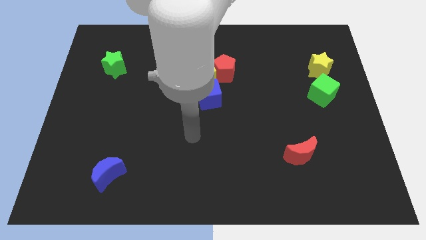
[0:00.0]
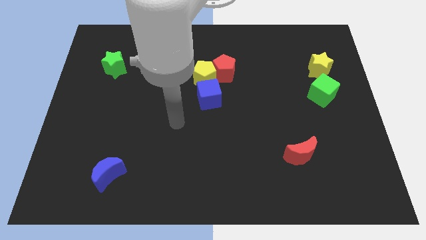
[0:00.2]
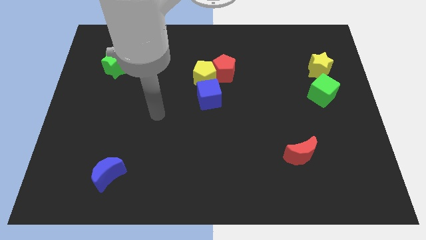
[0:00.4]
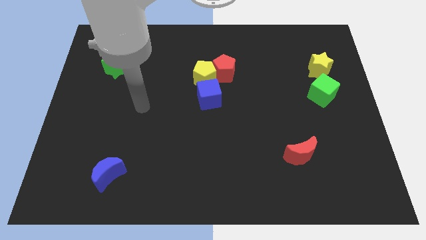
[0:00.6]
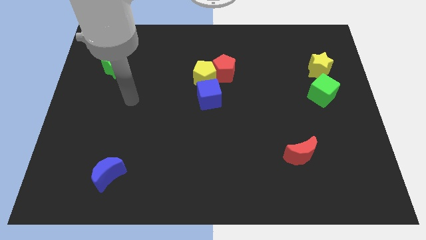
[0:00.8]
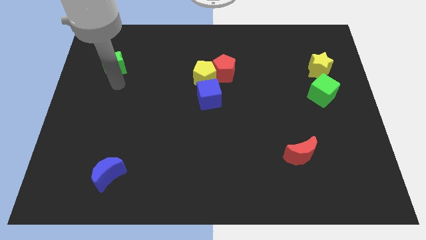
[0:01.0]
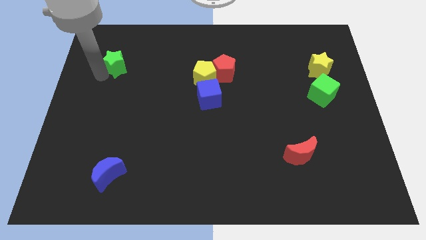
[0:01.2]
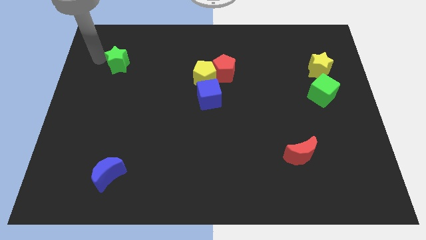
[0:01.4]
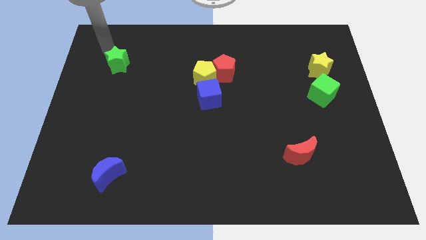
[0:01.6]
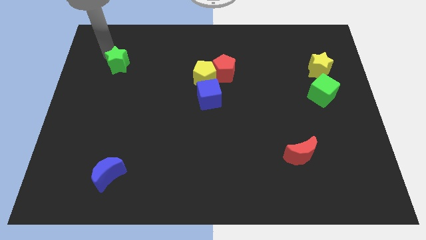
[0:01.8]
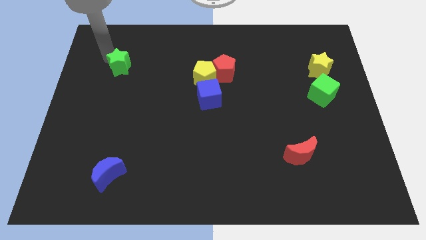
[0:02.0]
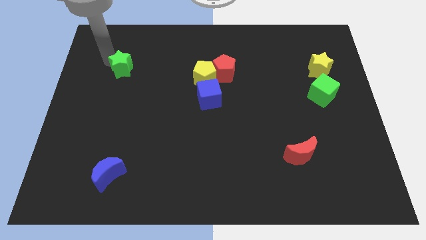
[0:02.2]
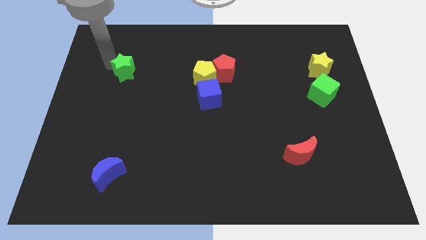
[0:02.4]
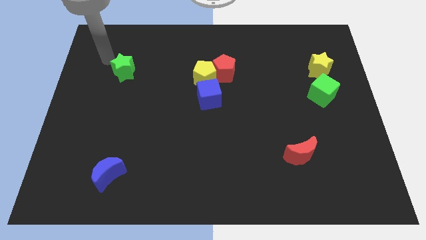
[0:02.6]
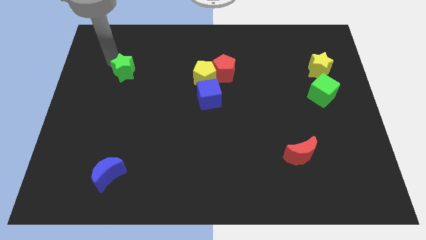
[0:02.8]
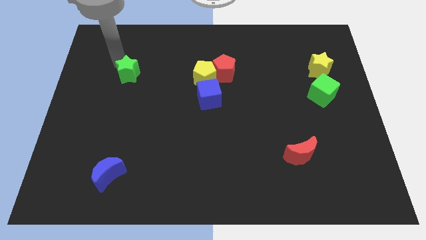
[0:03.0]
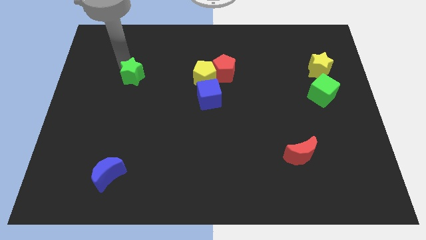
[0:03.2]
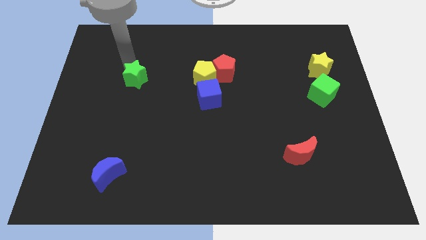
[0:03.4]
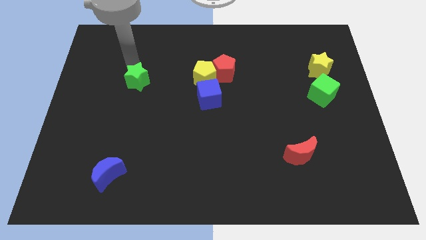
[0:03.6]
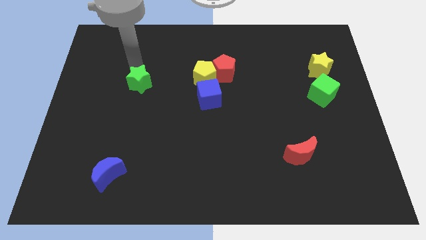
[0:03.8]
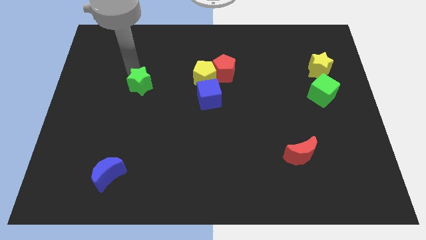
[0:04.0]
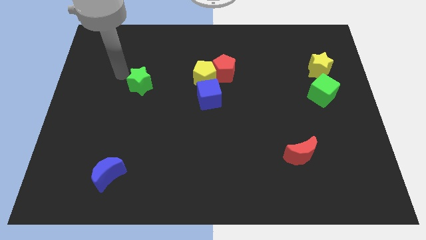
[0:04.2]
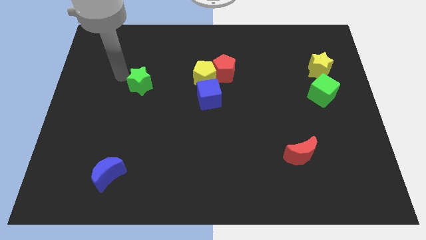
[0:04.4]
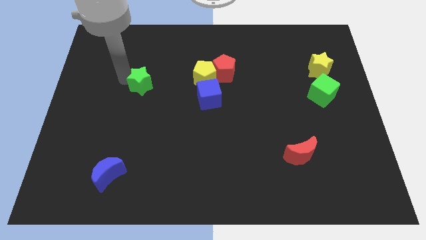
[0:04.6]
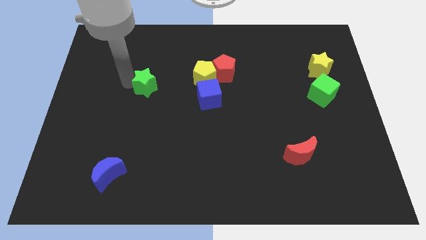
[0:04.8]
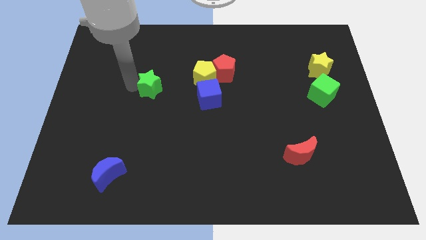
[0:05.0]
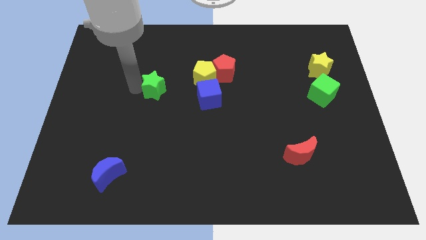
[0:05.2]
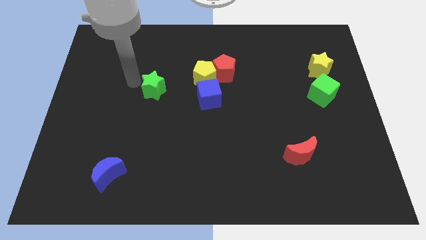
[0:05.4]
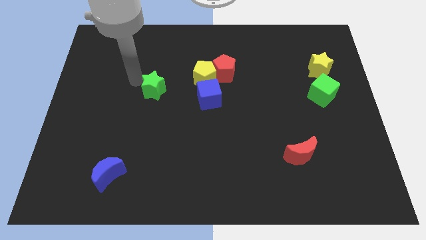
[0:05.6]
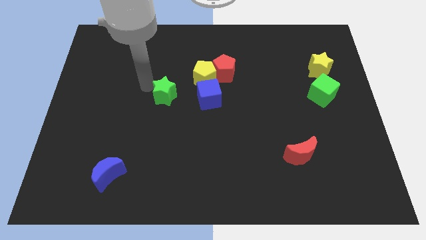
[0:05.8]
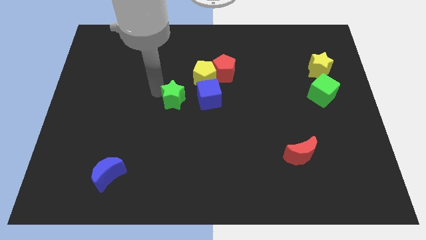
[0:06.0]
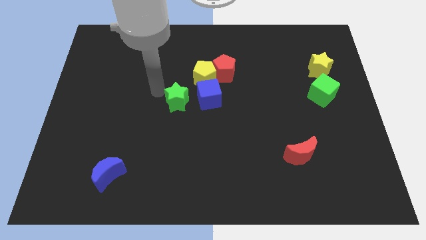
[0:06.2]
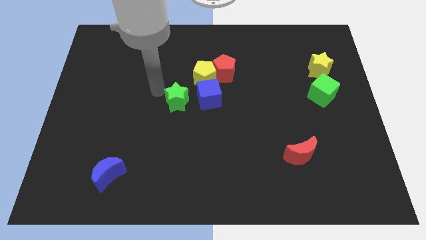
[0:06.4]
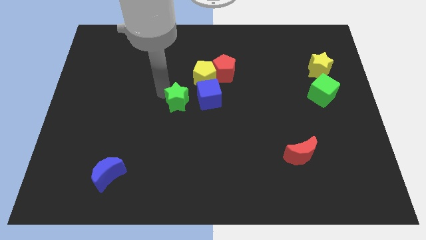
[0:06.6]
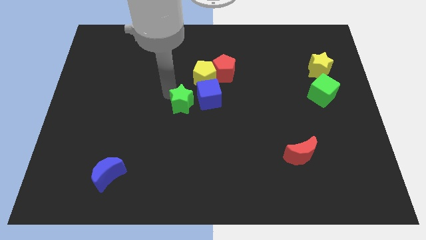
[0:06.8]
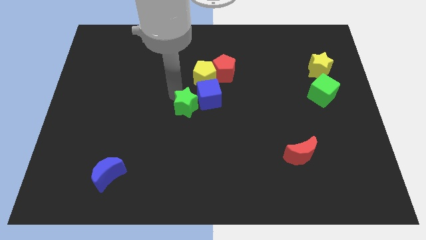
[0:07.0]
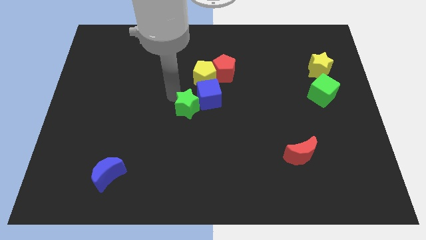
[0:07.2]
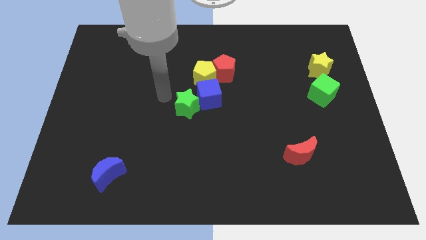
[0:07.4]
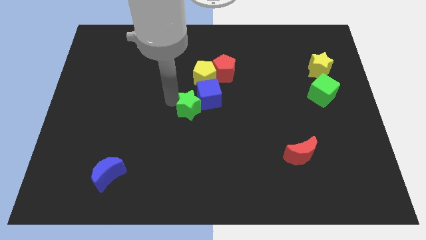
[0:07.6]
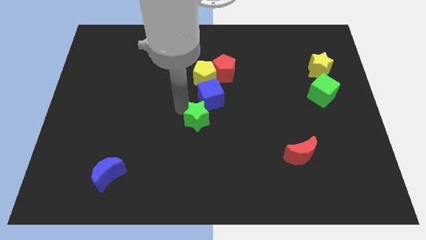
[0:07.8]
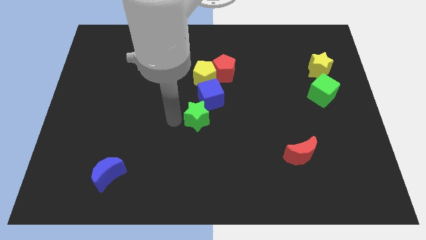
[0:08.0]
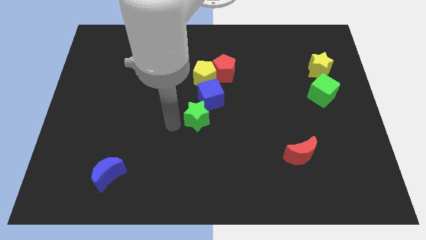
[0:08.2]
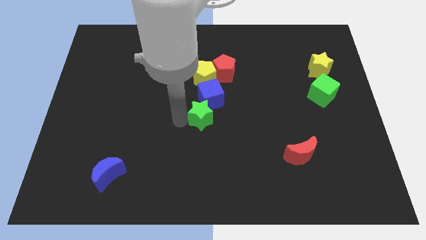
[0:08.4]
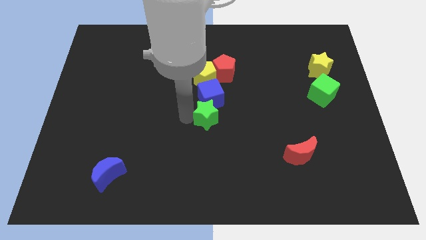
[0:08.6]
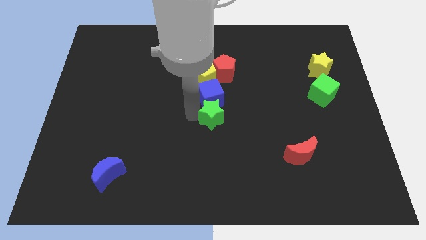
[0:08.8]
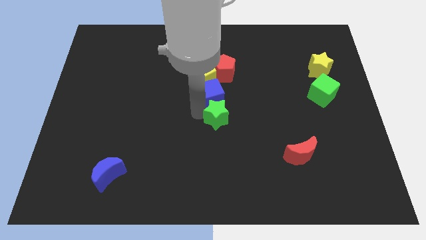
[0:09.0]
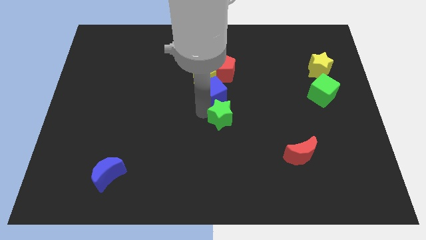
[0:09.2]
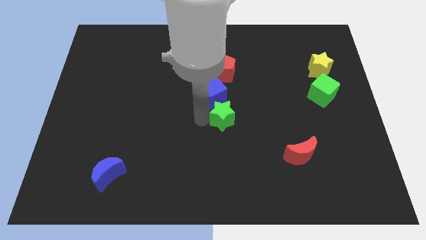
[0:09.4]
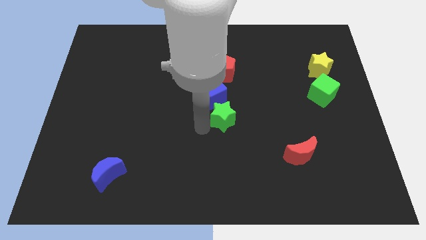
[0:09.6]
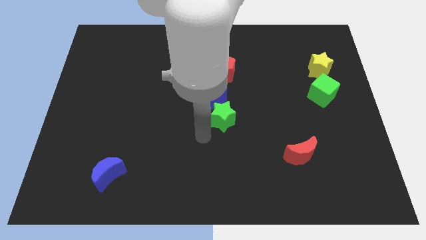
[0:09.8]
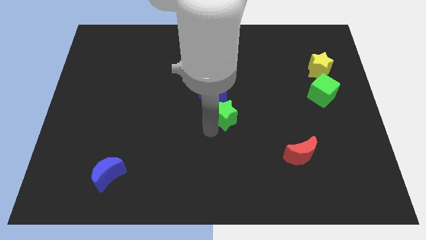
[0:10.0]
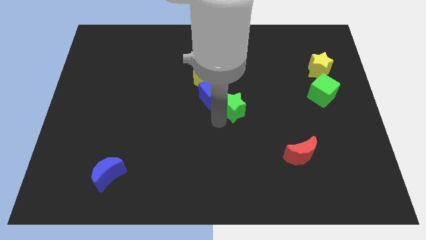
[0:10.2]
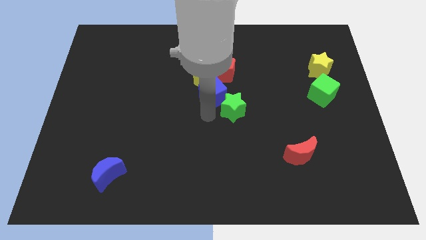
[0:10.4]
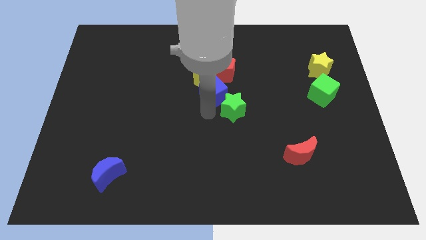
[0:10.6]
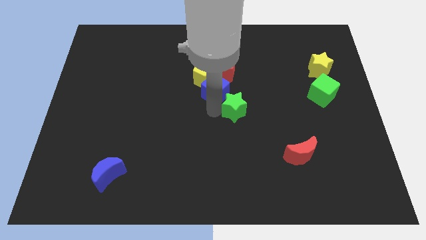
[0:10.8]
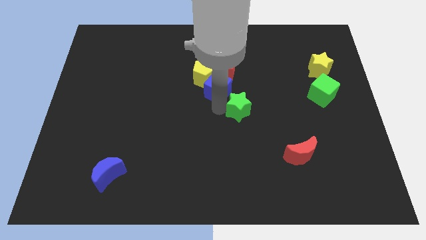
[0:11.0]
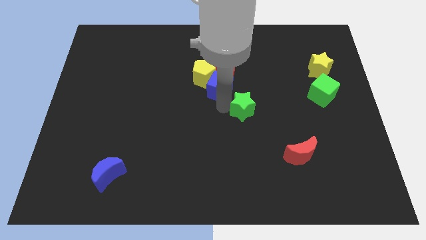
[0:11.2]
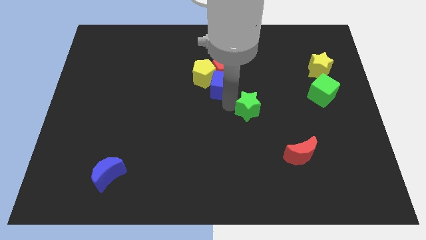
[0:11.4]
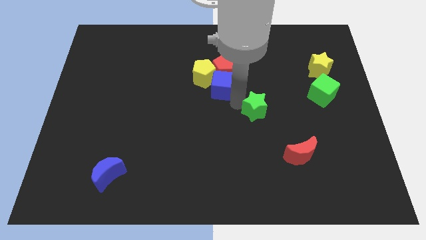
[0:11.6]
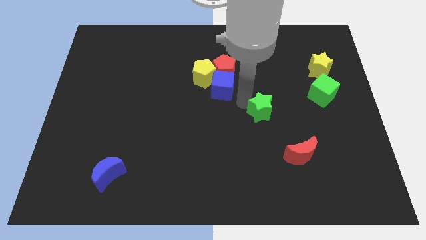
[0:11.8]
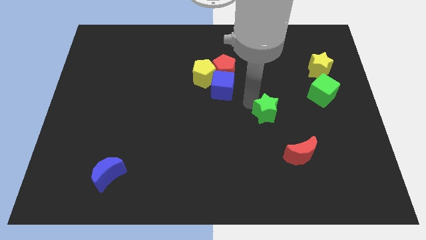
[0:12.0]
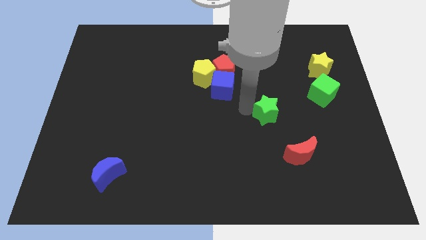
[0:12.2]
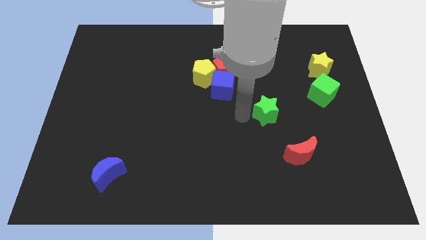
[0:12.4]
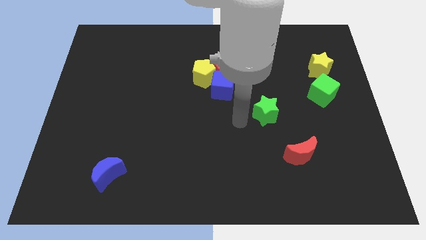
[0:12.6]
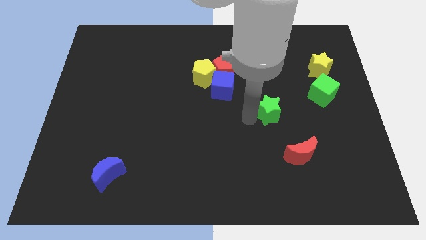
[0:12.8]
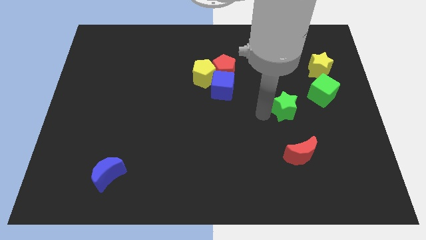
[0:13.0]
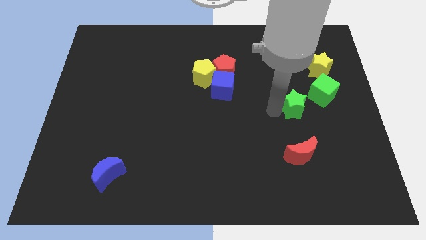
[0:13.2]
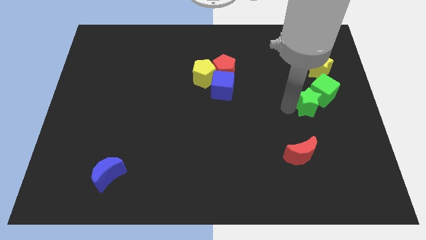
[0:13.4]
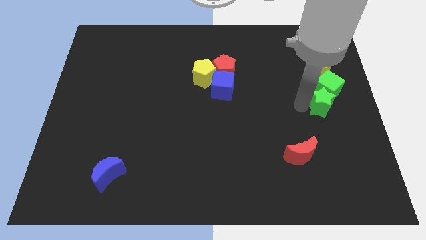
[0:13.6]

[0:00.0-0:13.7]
move the green star to the center right

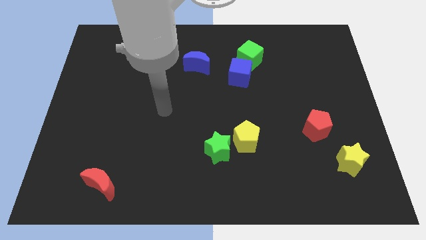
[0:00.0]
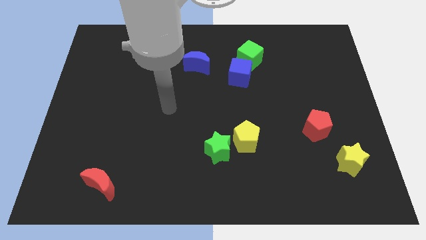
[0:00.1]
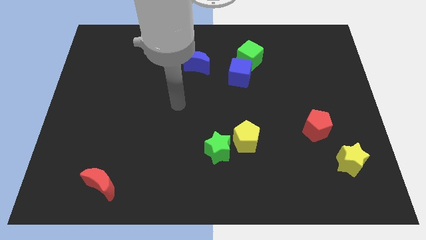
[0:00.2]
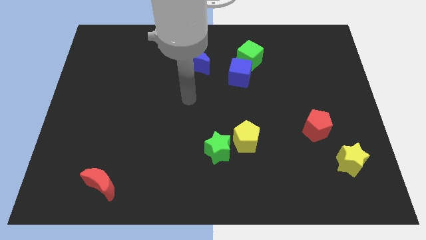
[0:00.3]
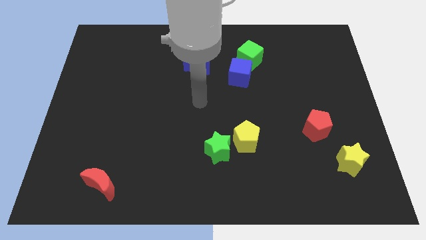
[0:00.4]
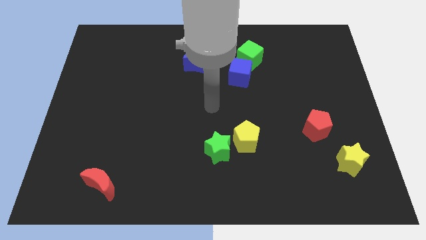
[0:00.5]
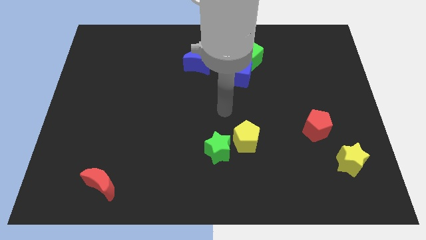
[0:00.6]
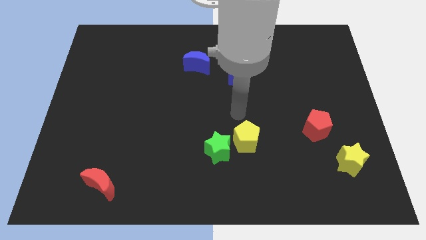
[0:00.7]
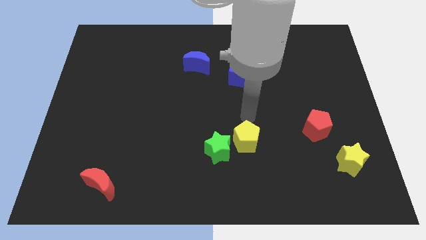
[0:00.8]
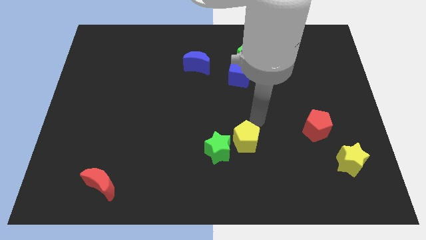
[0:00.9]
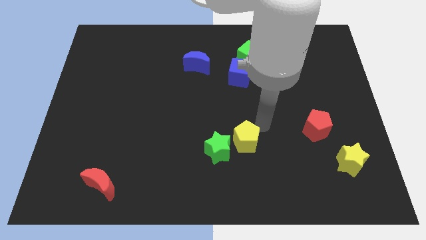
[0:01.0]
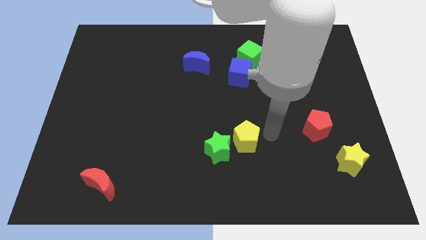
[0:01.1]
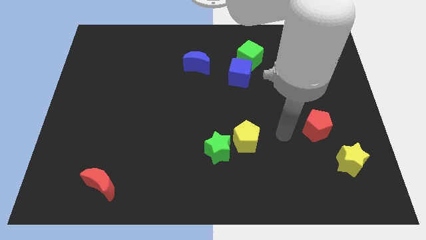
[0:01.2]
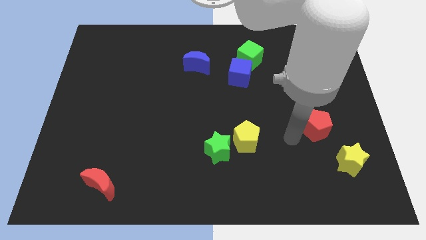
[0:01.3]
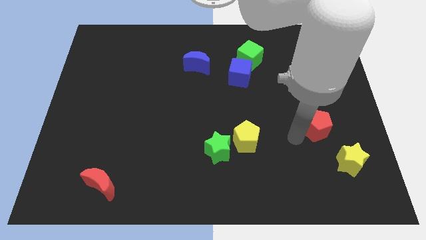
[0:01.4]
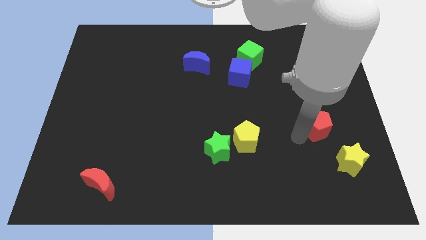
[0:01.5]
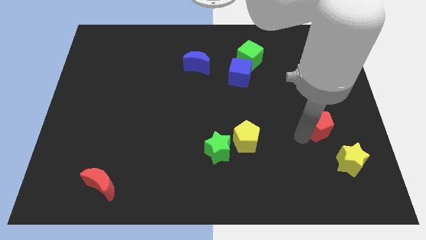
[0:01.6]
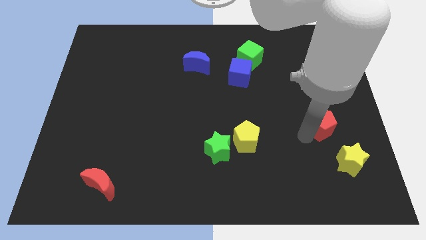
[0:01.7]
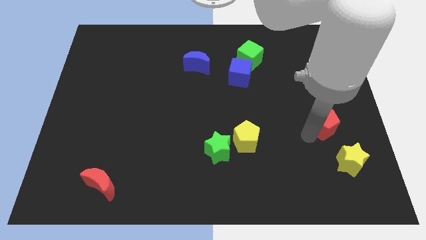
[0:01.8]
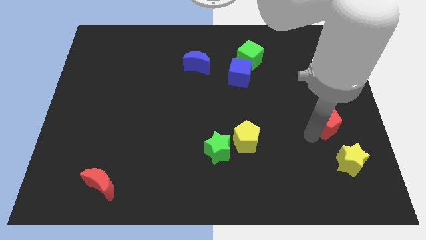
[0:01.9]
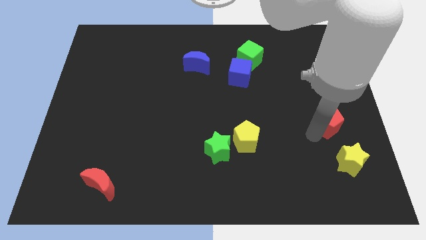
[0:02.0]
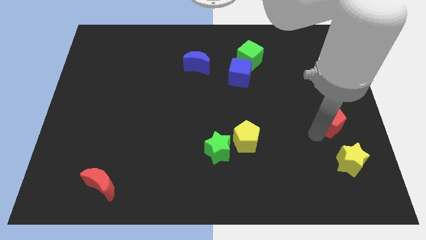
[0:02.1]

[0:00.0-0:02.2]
slide the red pentagon to the right side of the board
